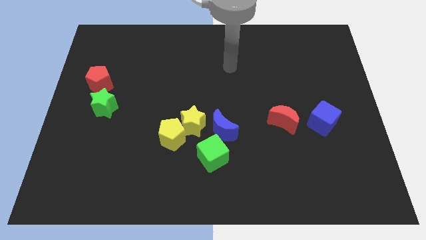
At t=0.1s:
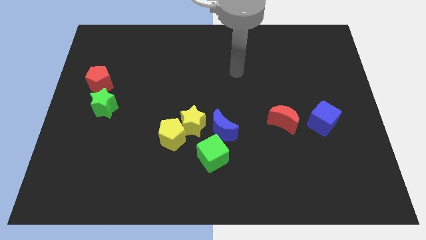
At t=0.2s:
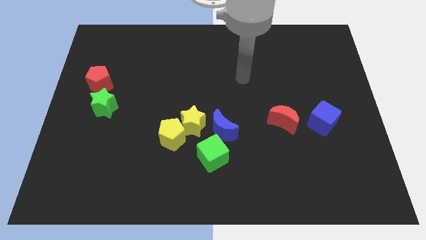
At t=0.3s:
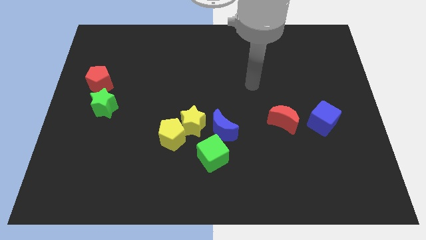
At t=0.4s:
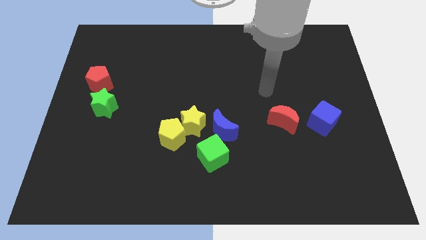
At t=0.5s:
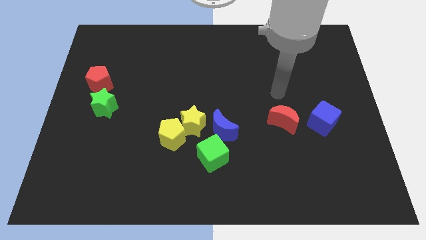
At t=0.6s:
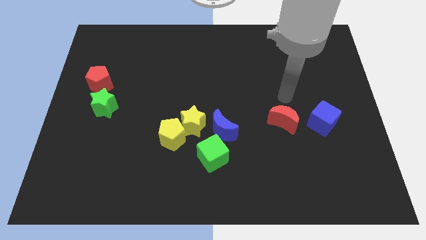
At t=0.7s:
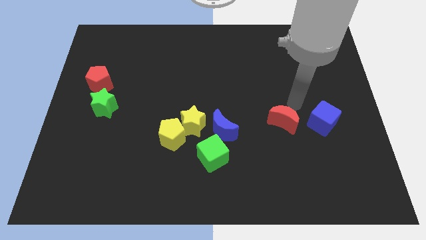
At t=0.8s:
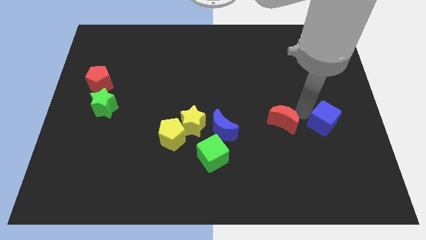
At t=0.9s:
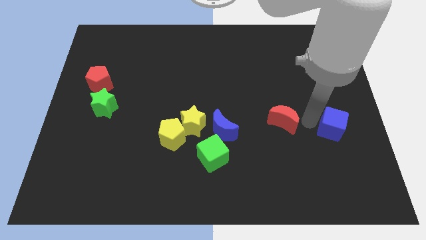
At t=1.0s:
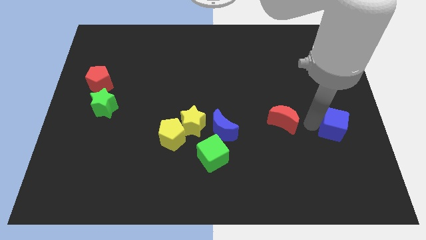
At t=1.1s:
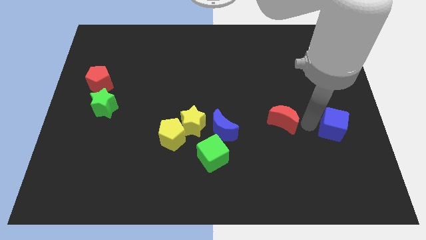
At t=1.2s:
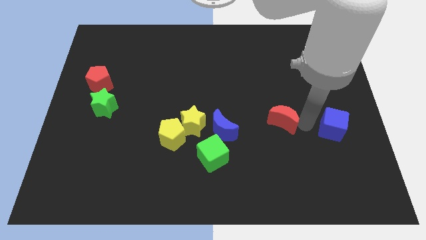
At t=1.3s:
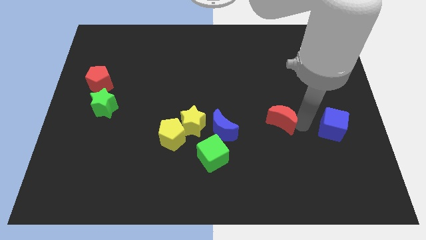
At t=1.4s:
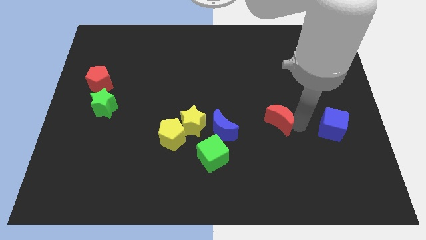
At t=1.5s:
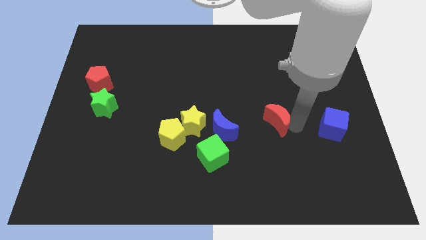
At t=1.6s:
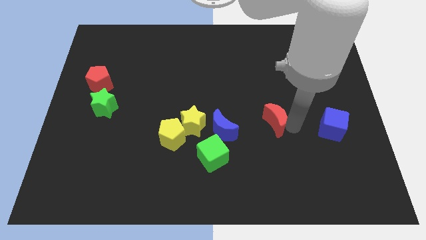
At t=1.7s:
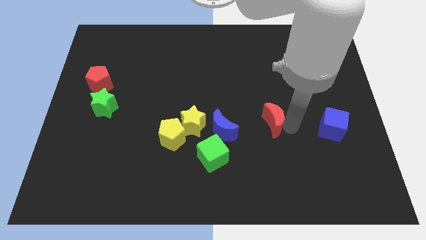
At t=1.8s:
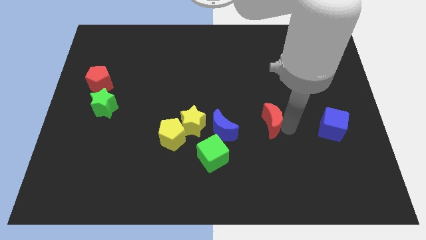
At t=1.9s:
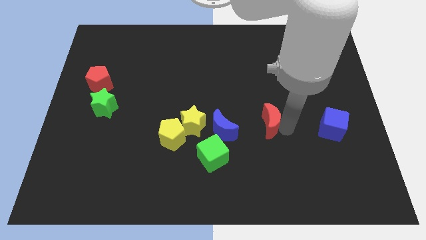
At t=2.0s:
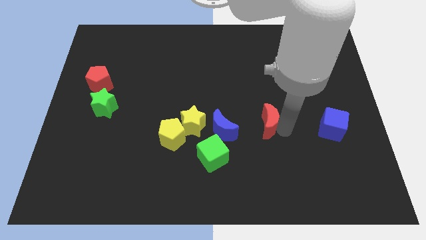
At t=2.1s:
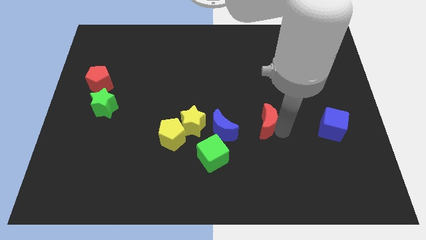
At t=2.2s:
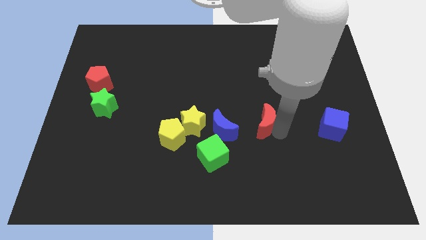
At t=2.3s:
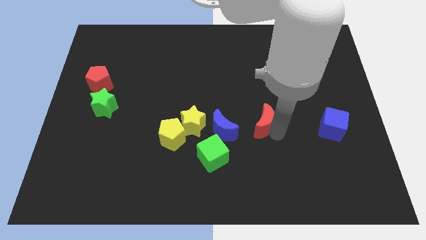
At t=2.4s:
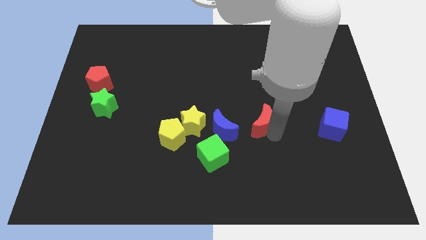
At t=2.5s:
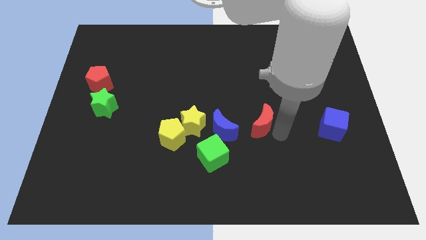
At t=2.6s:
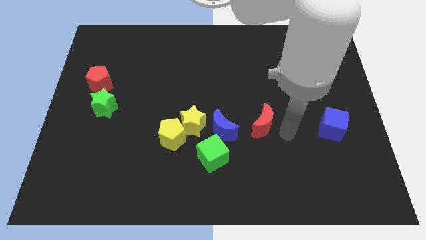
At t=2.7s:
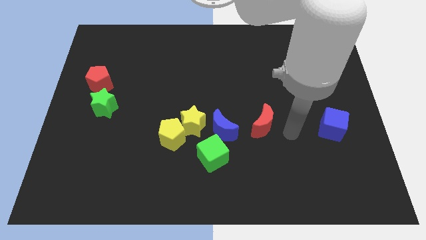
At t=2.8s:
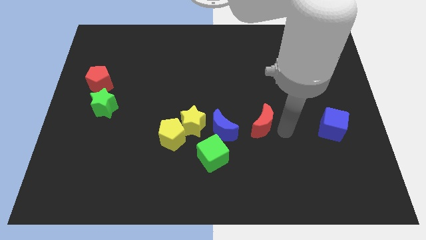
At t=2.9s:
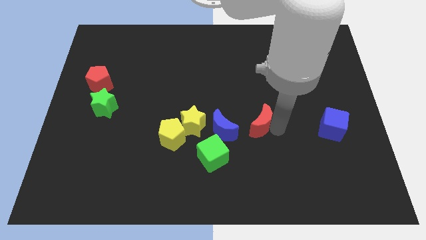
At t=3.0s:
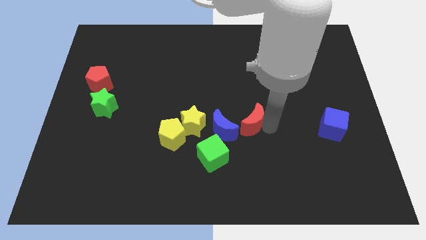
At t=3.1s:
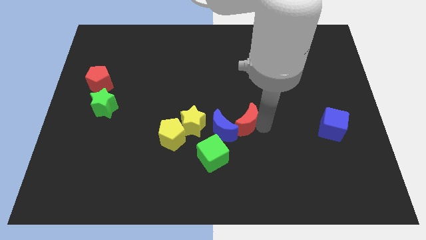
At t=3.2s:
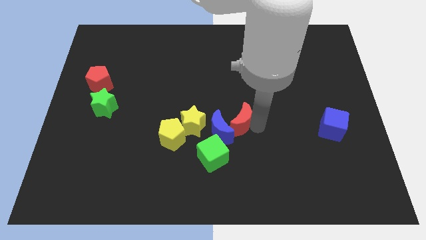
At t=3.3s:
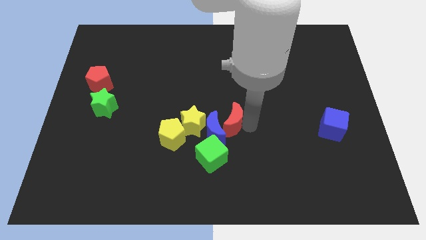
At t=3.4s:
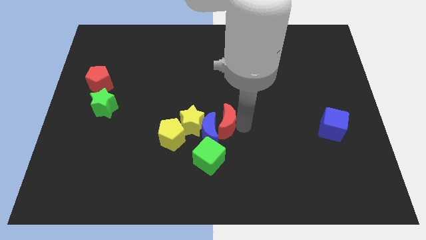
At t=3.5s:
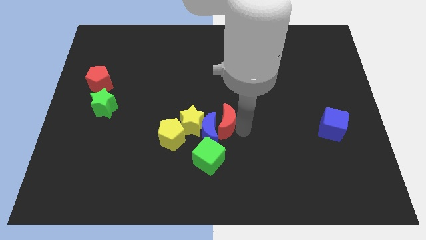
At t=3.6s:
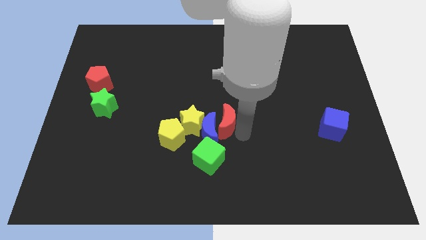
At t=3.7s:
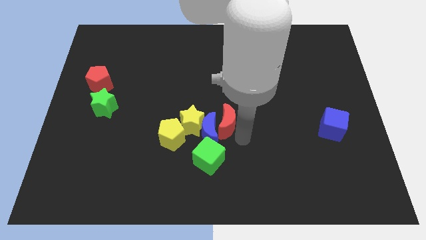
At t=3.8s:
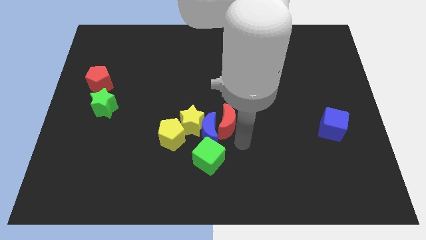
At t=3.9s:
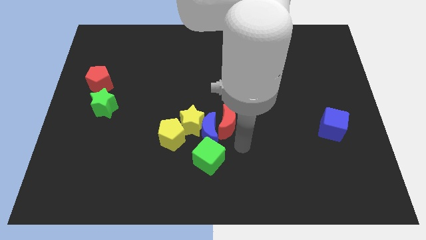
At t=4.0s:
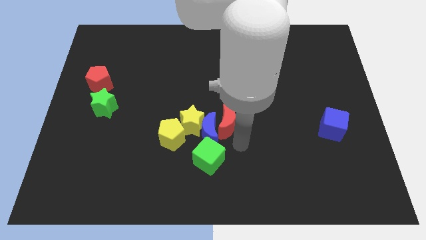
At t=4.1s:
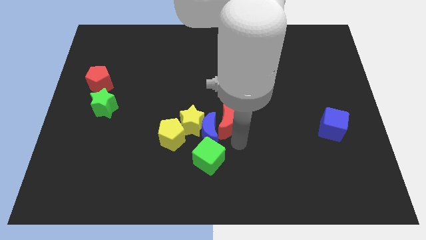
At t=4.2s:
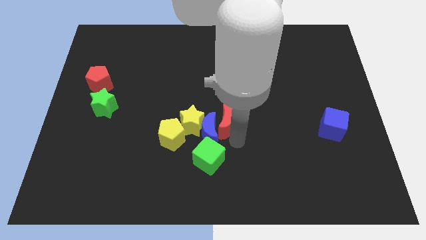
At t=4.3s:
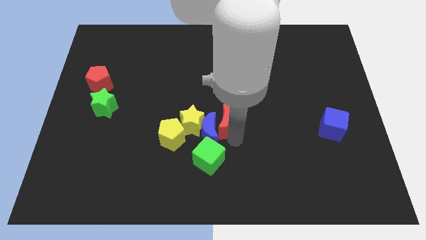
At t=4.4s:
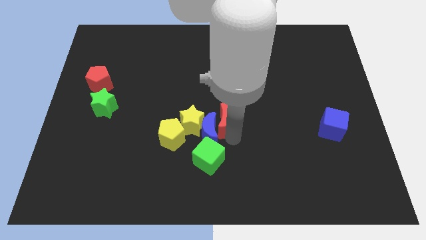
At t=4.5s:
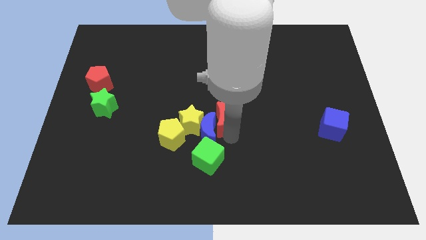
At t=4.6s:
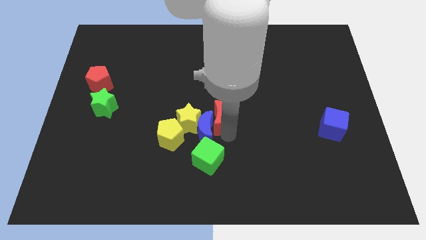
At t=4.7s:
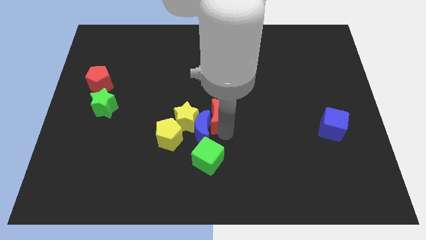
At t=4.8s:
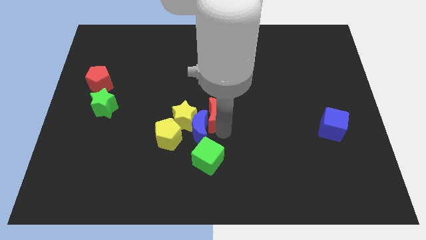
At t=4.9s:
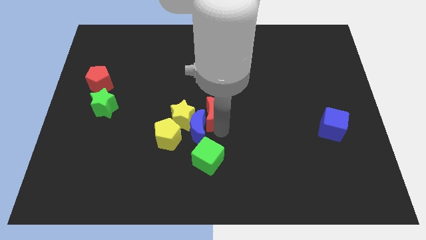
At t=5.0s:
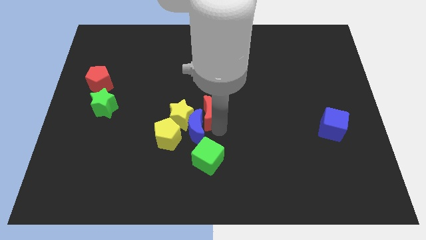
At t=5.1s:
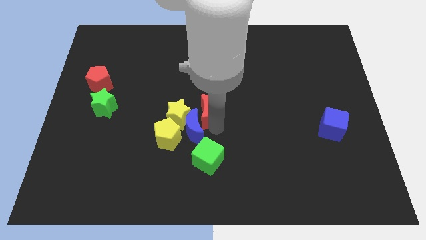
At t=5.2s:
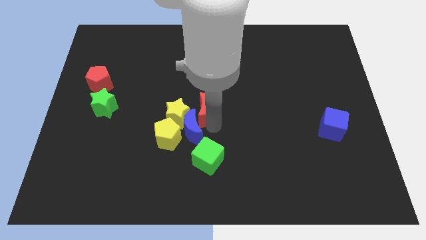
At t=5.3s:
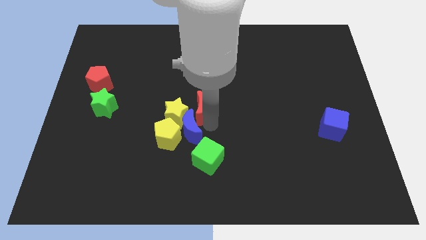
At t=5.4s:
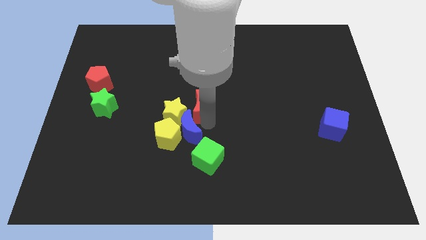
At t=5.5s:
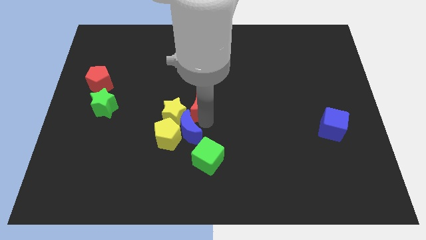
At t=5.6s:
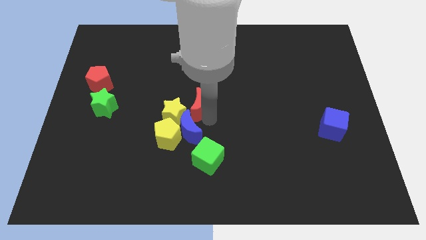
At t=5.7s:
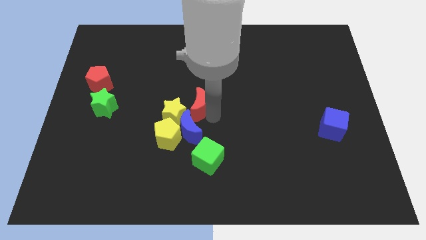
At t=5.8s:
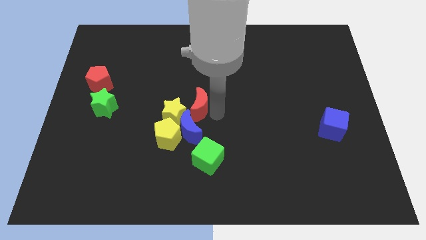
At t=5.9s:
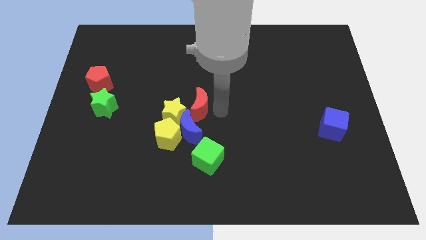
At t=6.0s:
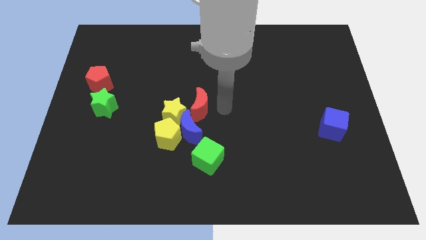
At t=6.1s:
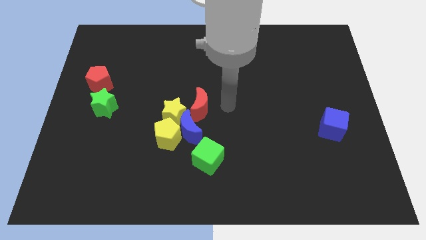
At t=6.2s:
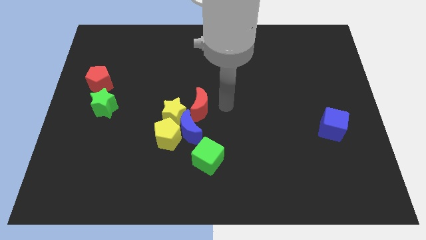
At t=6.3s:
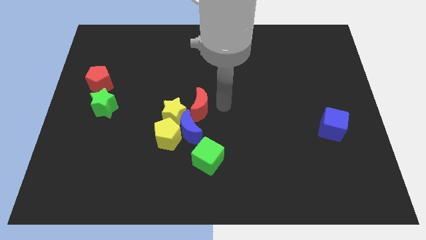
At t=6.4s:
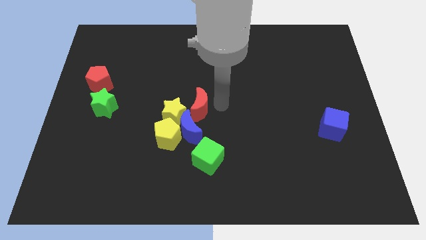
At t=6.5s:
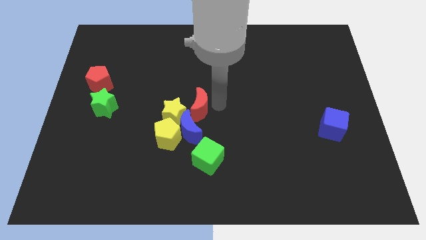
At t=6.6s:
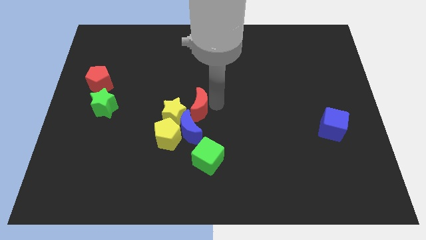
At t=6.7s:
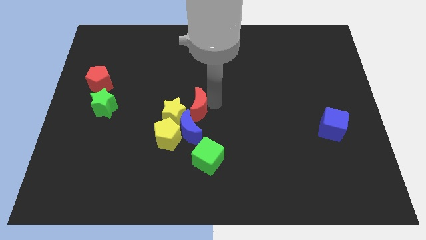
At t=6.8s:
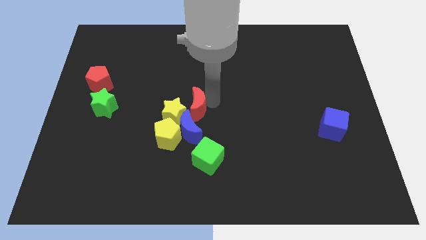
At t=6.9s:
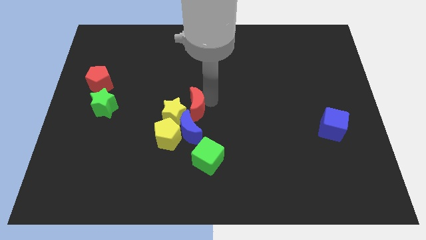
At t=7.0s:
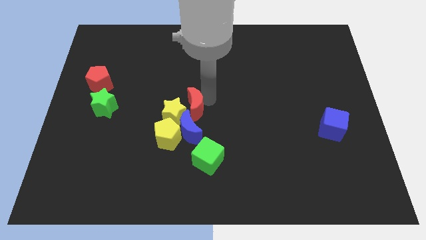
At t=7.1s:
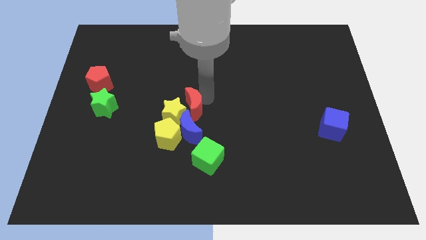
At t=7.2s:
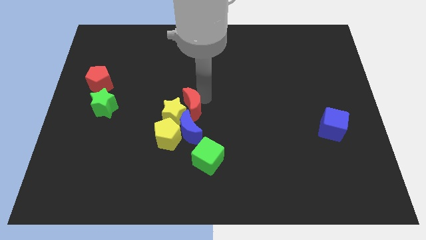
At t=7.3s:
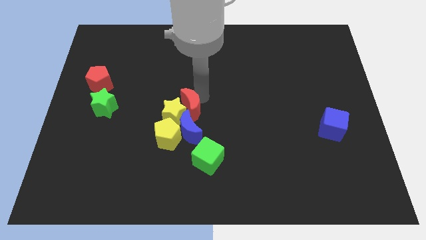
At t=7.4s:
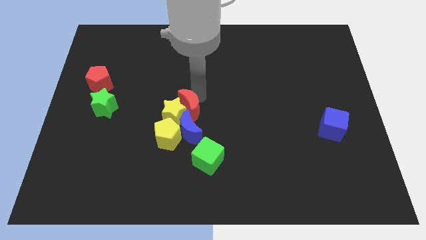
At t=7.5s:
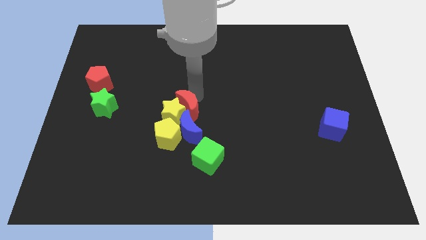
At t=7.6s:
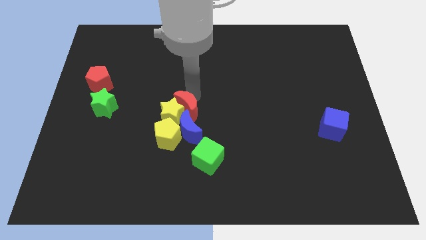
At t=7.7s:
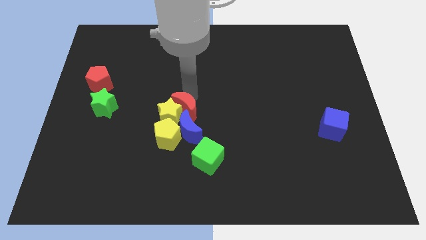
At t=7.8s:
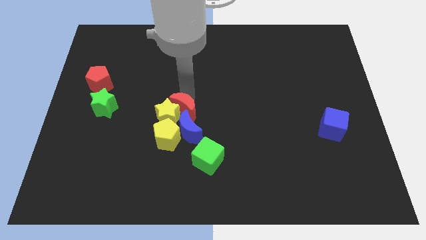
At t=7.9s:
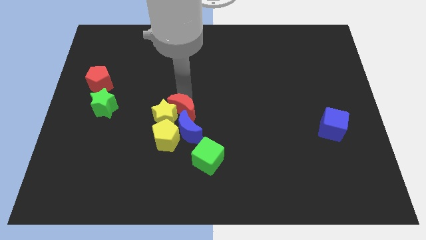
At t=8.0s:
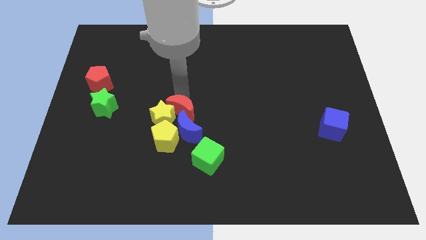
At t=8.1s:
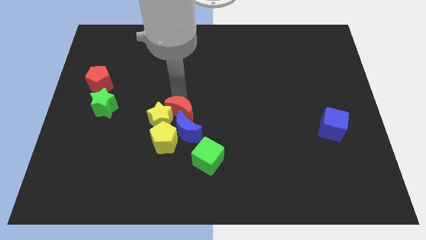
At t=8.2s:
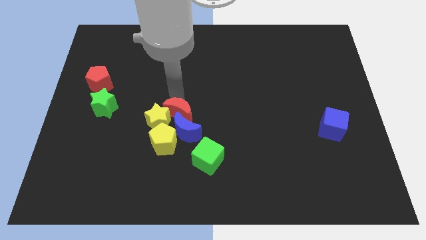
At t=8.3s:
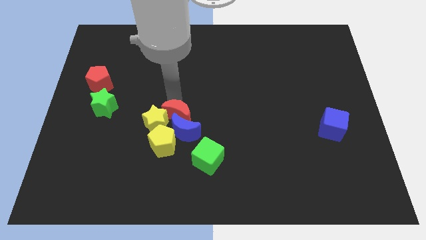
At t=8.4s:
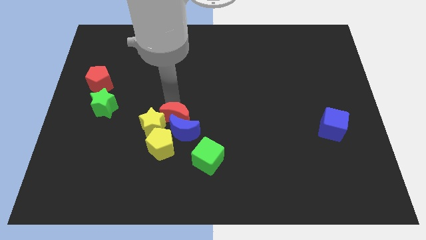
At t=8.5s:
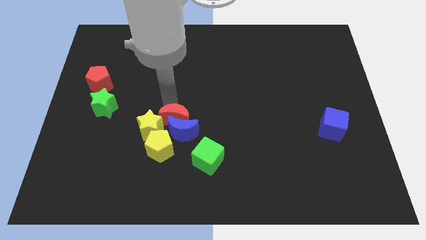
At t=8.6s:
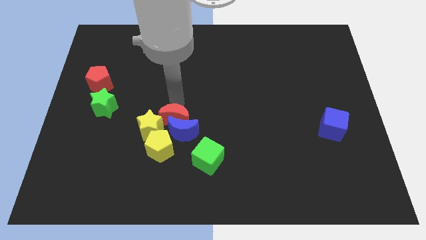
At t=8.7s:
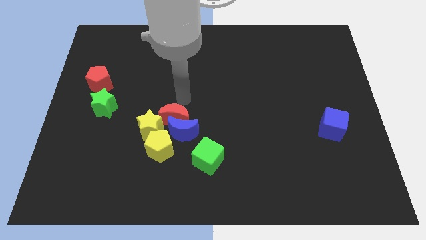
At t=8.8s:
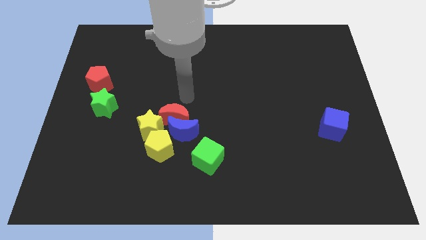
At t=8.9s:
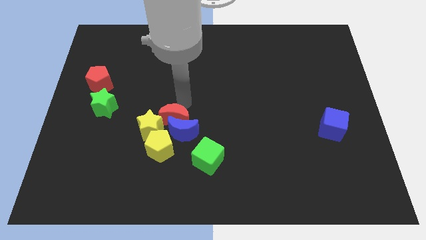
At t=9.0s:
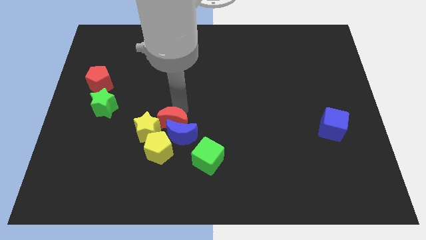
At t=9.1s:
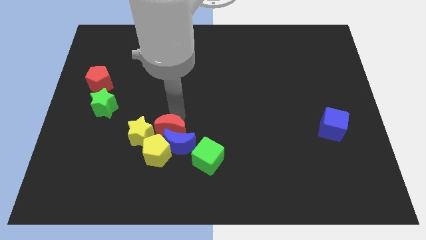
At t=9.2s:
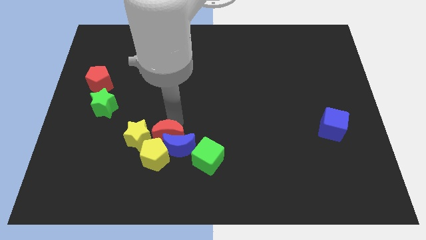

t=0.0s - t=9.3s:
put the red moon to the yellow pentagon
